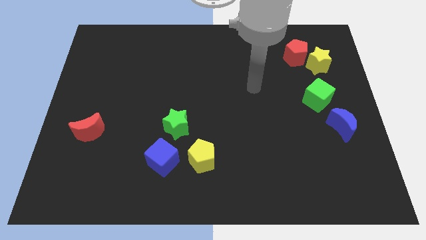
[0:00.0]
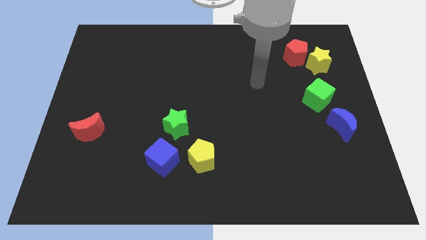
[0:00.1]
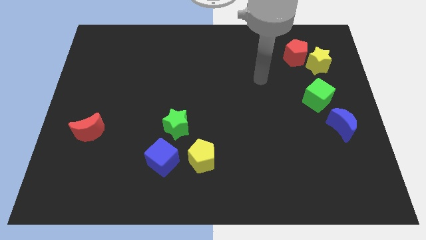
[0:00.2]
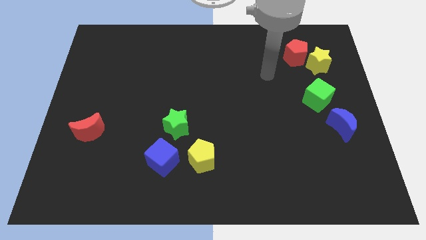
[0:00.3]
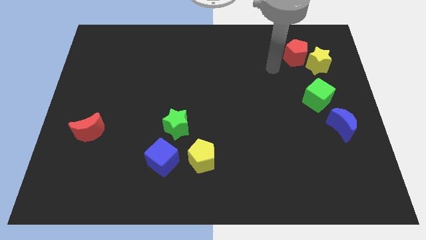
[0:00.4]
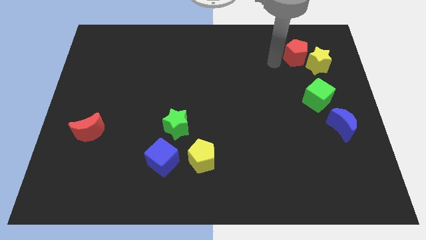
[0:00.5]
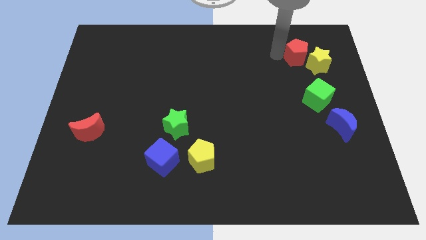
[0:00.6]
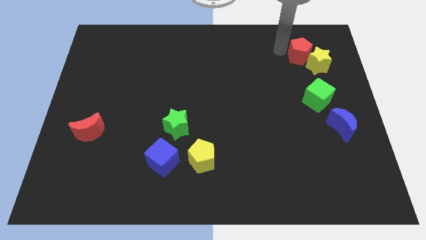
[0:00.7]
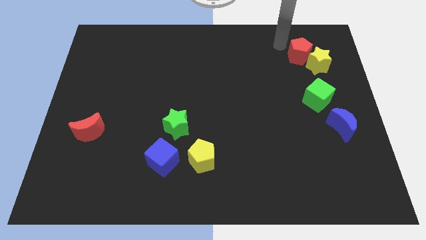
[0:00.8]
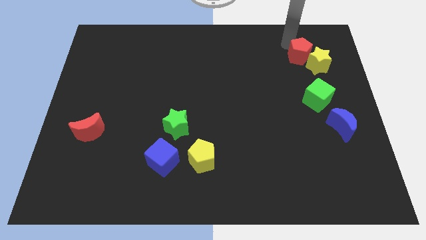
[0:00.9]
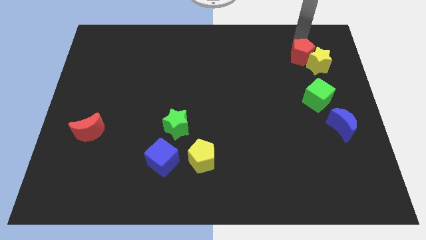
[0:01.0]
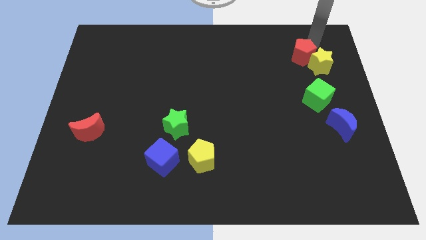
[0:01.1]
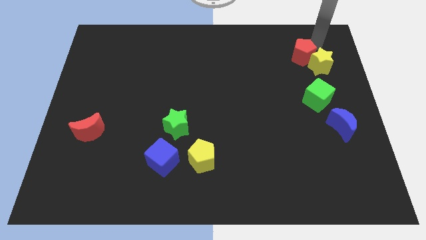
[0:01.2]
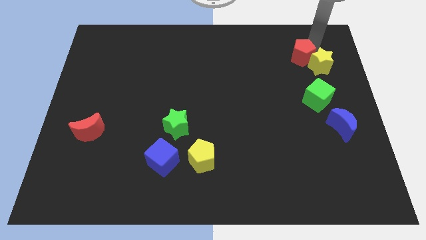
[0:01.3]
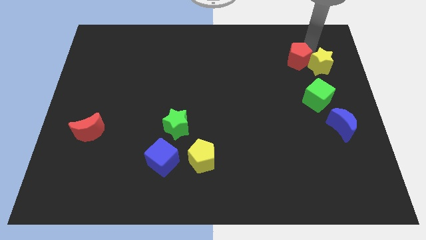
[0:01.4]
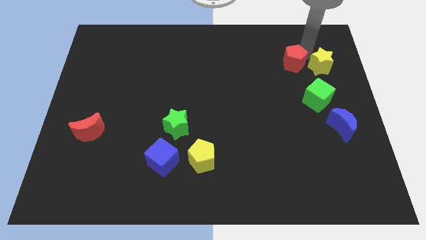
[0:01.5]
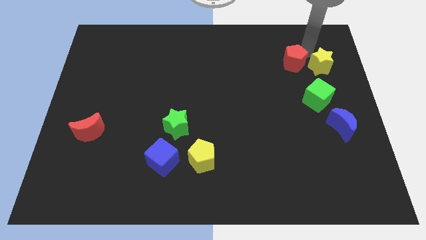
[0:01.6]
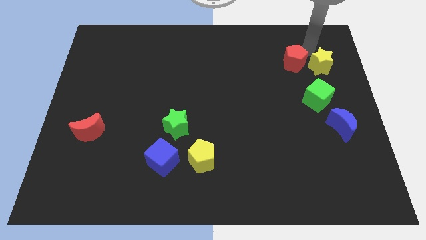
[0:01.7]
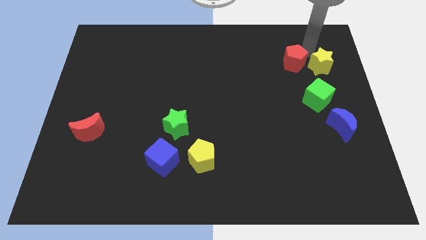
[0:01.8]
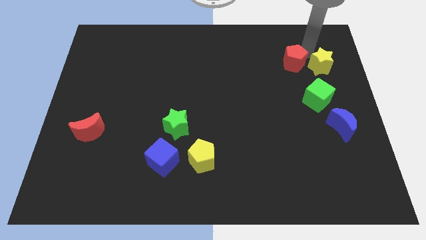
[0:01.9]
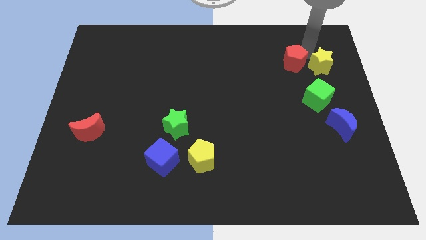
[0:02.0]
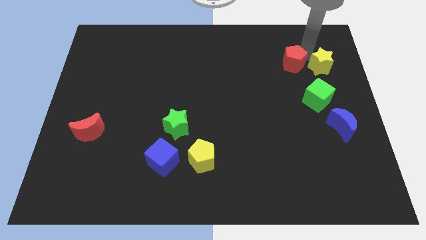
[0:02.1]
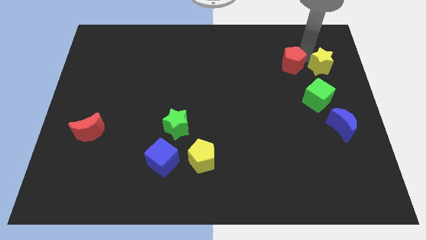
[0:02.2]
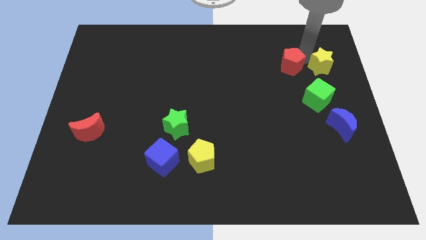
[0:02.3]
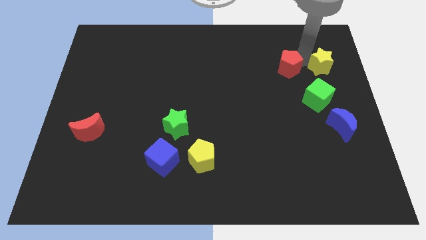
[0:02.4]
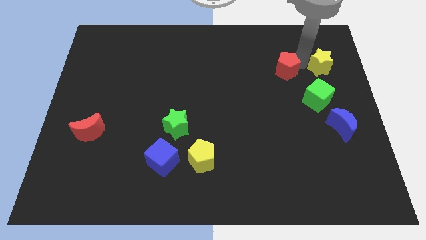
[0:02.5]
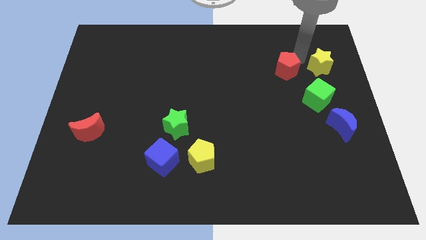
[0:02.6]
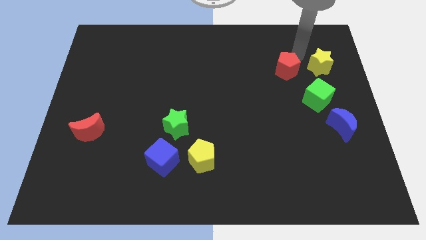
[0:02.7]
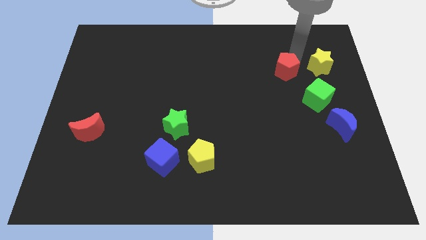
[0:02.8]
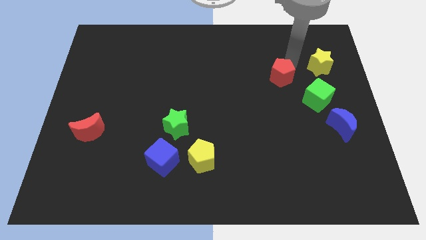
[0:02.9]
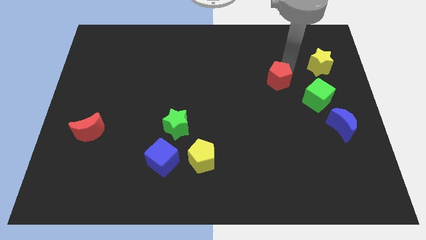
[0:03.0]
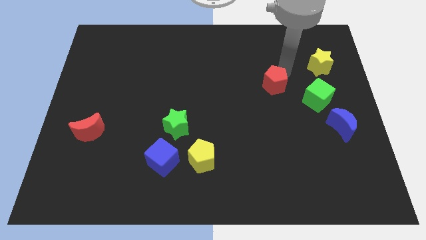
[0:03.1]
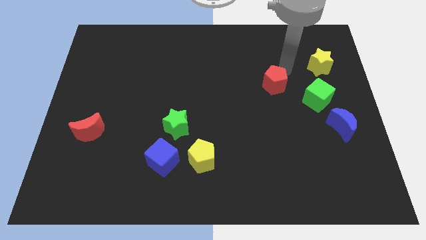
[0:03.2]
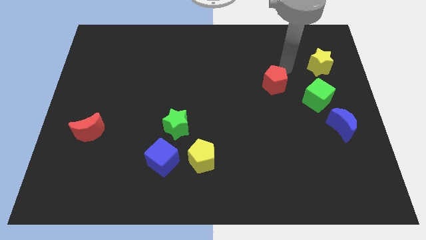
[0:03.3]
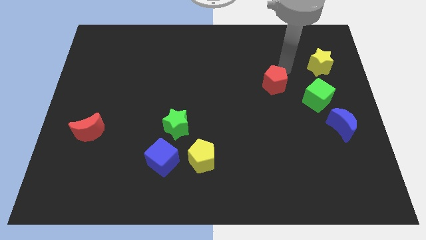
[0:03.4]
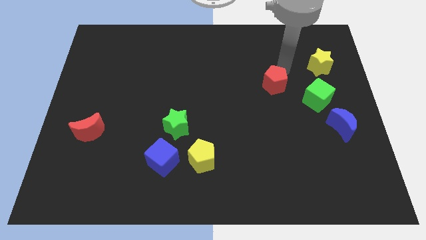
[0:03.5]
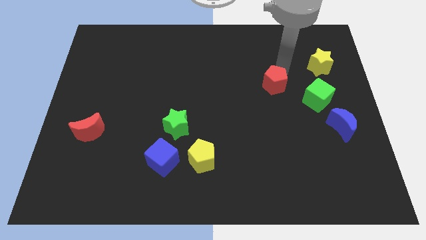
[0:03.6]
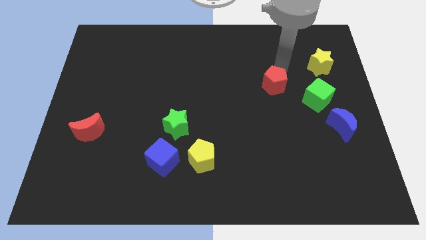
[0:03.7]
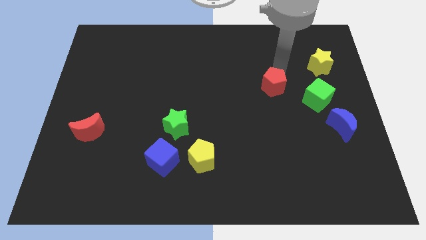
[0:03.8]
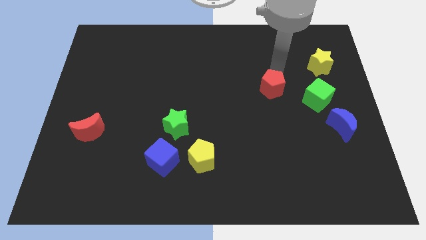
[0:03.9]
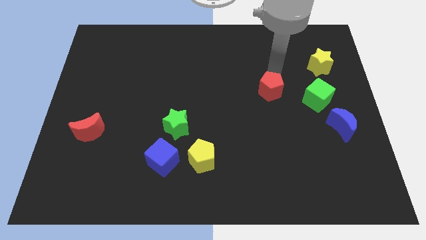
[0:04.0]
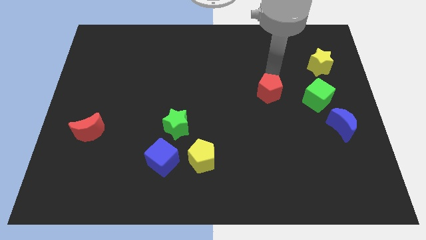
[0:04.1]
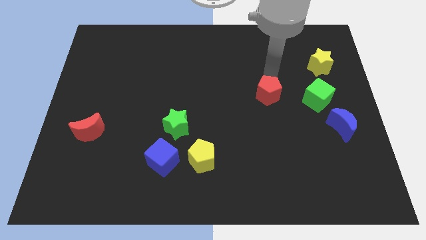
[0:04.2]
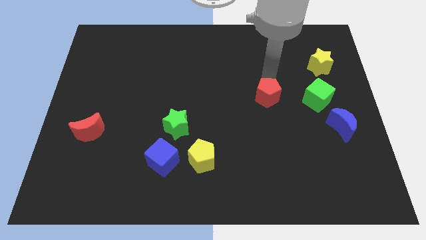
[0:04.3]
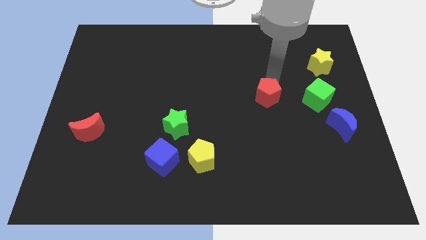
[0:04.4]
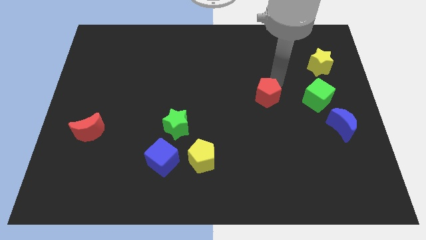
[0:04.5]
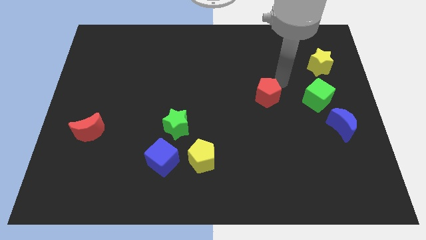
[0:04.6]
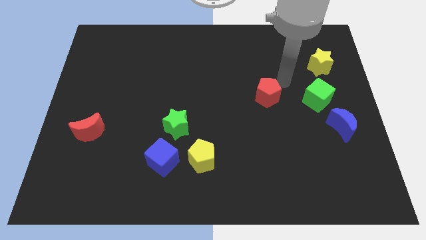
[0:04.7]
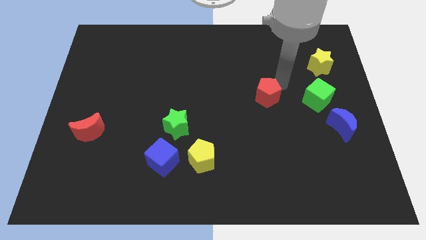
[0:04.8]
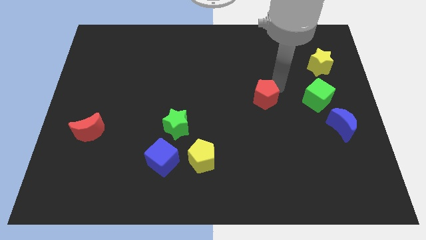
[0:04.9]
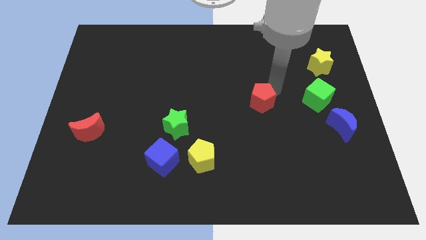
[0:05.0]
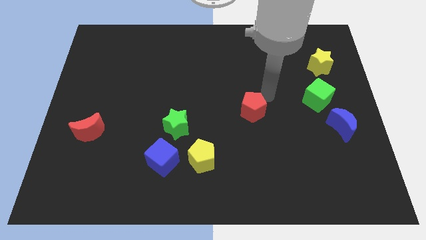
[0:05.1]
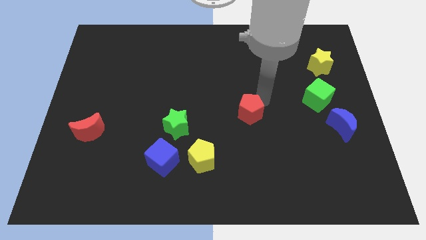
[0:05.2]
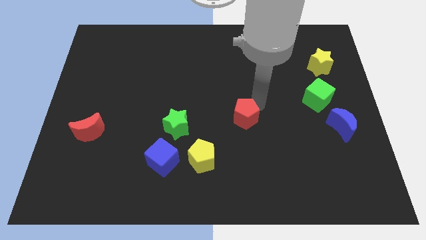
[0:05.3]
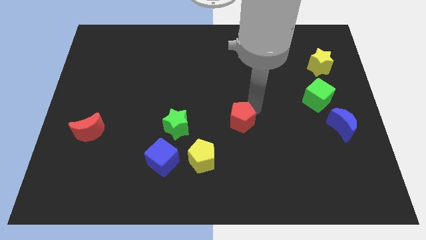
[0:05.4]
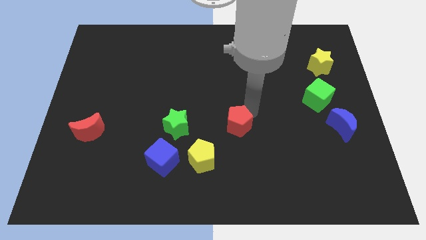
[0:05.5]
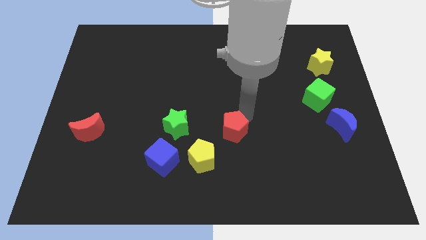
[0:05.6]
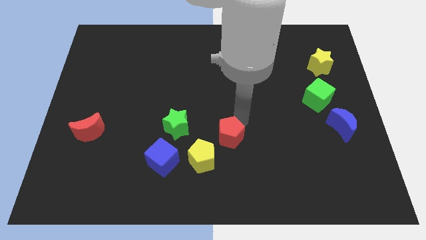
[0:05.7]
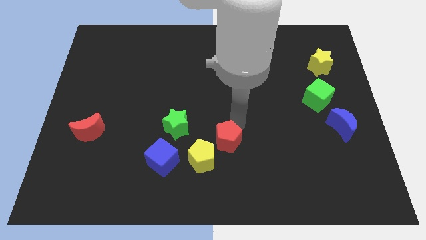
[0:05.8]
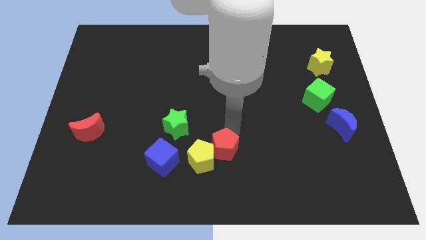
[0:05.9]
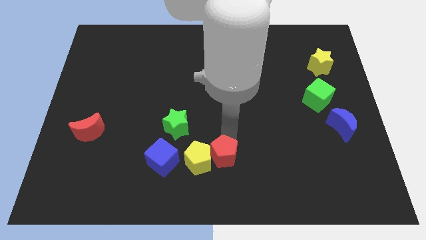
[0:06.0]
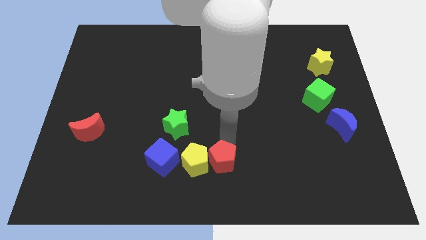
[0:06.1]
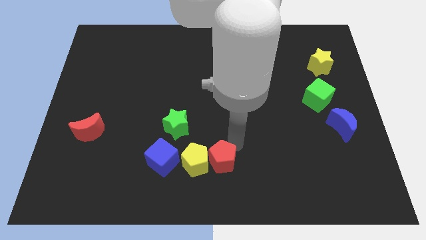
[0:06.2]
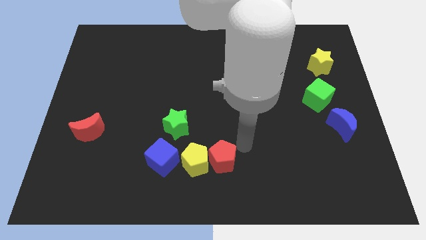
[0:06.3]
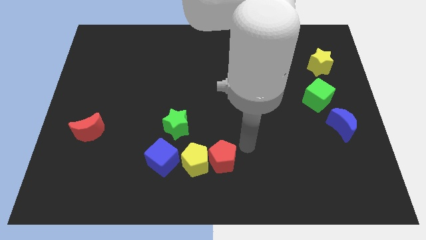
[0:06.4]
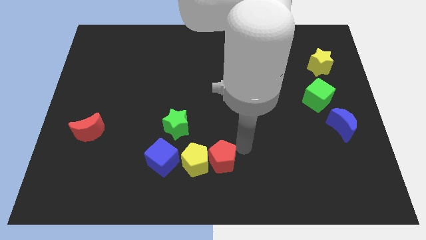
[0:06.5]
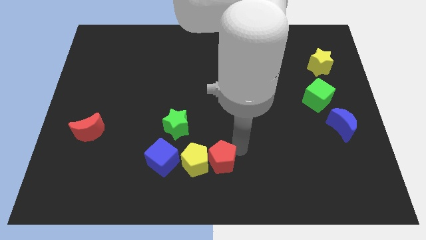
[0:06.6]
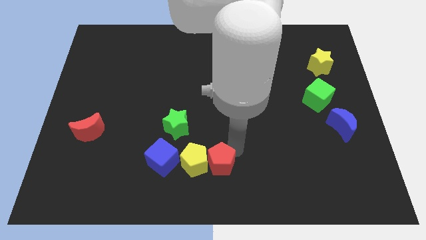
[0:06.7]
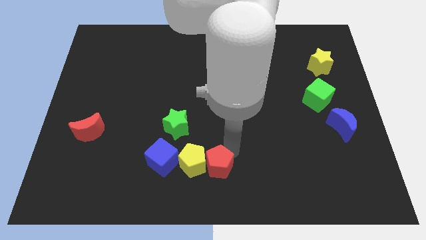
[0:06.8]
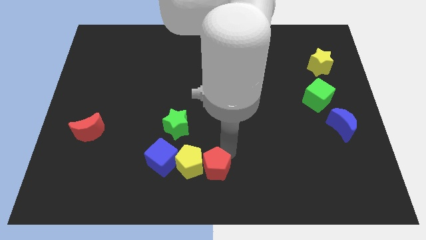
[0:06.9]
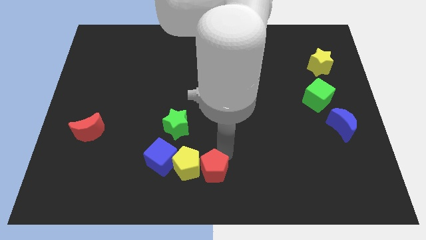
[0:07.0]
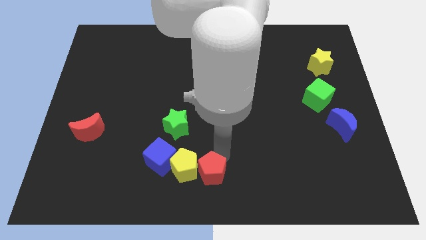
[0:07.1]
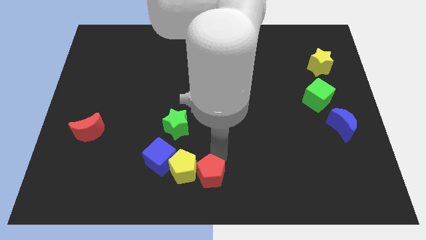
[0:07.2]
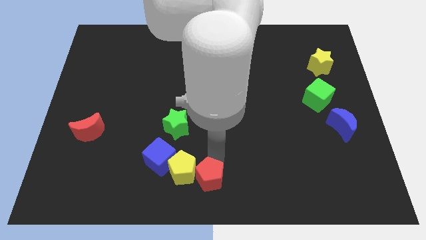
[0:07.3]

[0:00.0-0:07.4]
put the red pentagon to the bottom right of the blue cube
